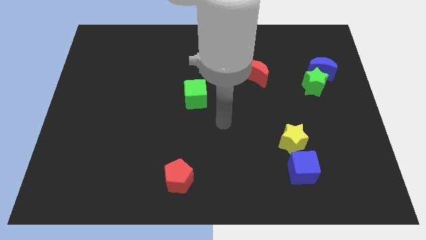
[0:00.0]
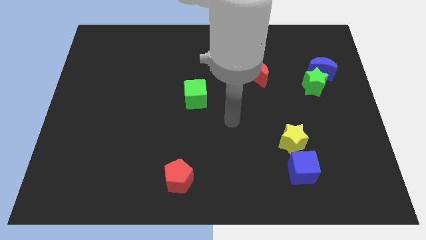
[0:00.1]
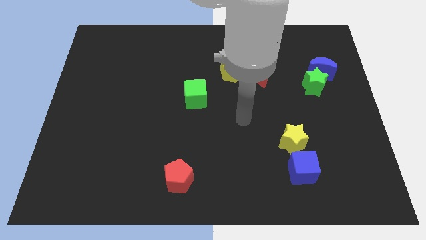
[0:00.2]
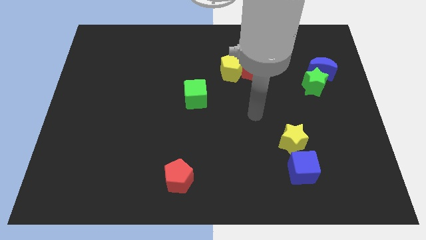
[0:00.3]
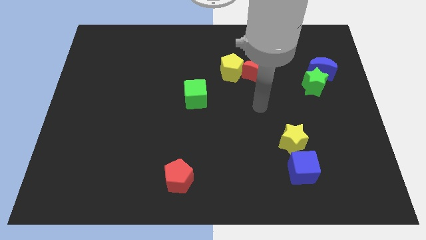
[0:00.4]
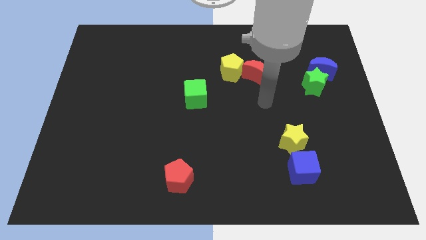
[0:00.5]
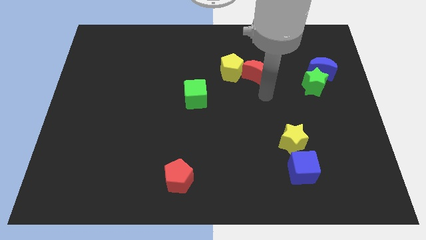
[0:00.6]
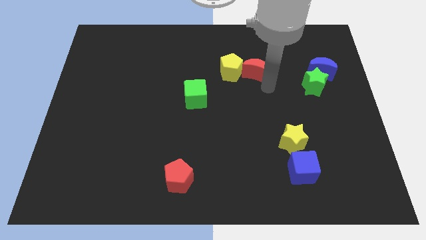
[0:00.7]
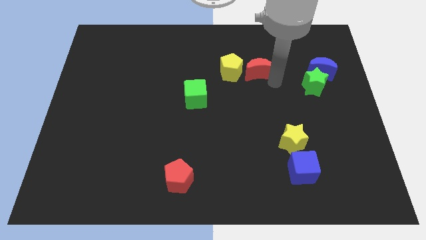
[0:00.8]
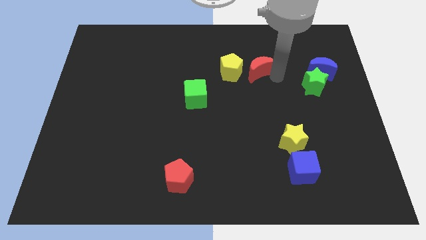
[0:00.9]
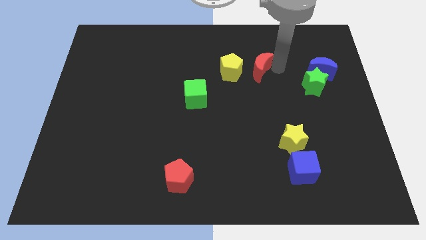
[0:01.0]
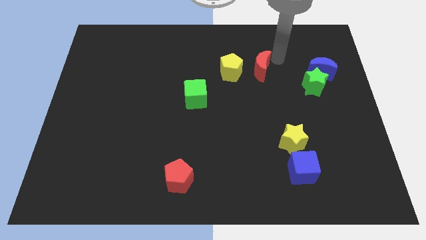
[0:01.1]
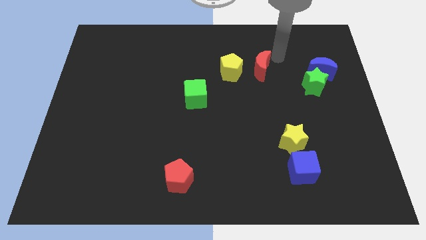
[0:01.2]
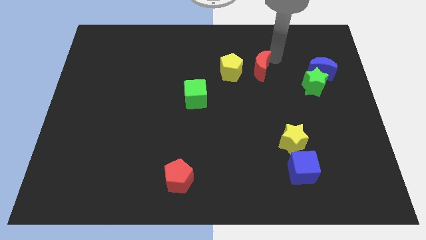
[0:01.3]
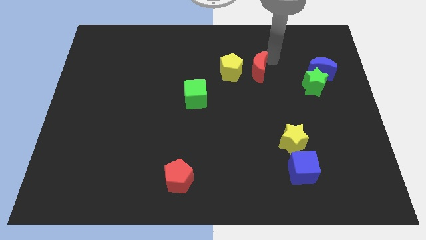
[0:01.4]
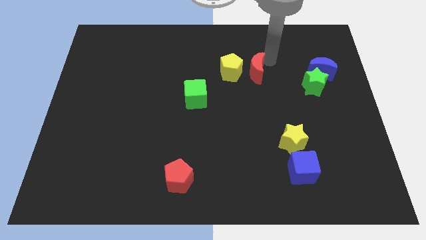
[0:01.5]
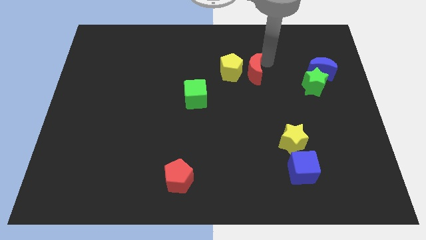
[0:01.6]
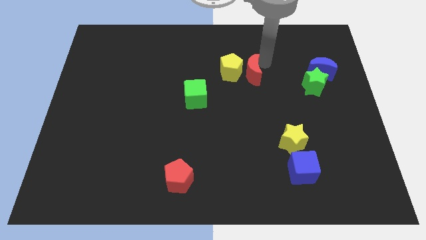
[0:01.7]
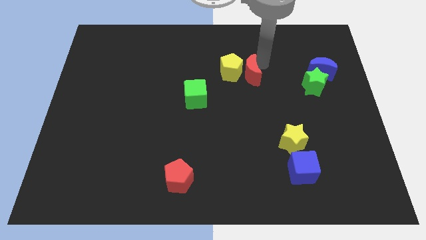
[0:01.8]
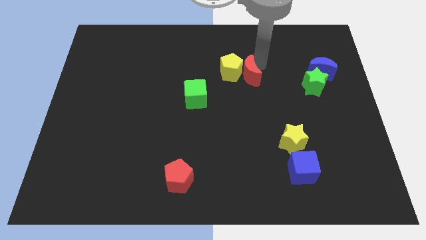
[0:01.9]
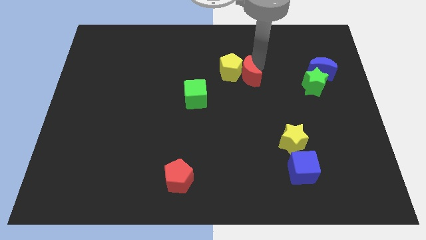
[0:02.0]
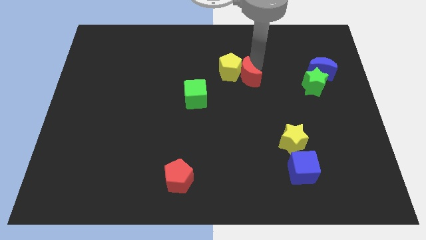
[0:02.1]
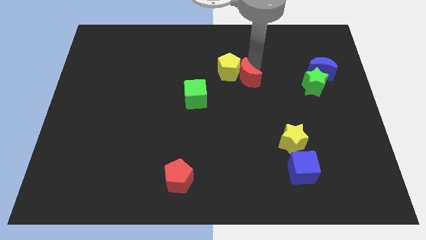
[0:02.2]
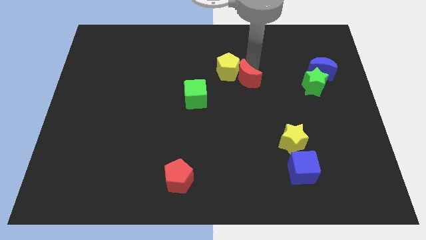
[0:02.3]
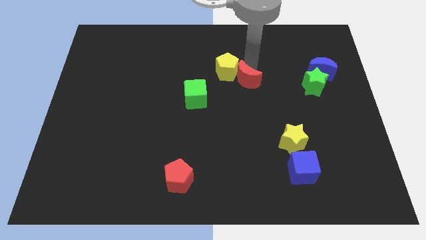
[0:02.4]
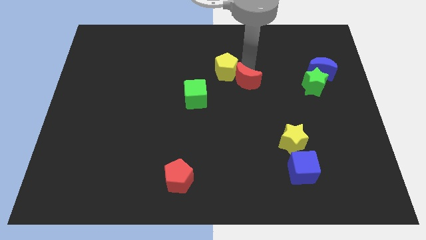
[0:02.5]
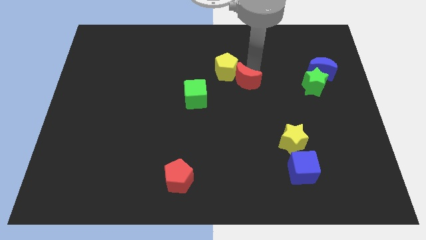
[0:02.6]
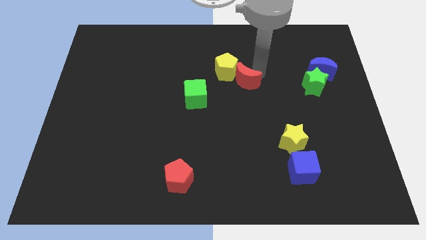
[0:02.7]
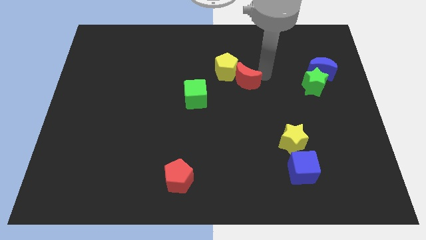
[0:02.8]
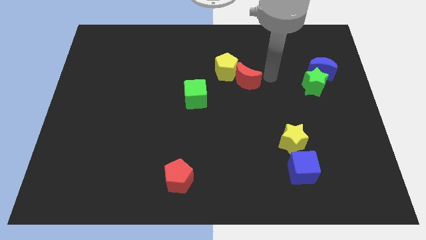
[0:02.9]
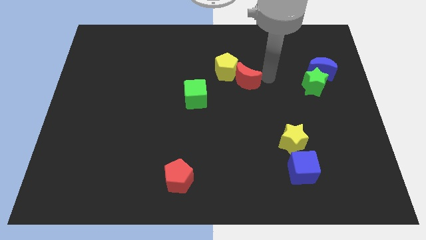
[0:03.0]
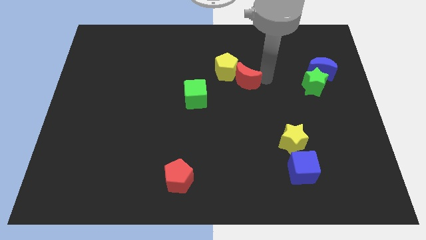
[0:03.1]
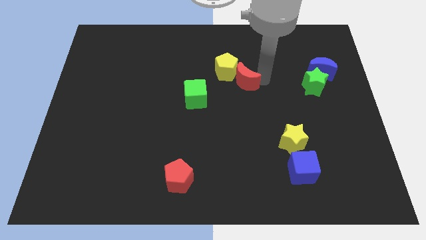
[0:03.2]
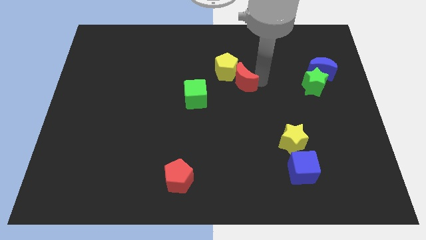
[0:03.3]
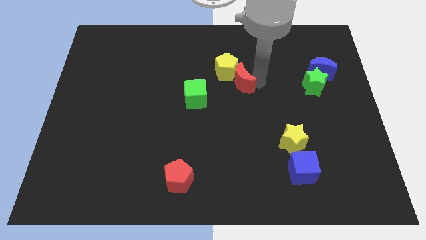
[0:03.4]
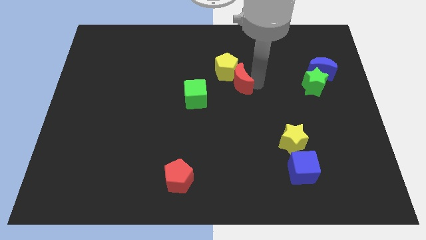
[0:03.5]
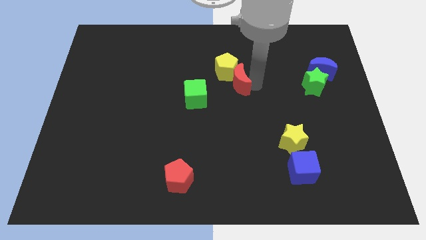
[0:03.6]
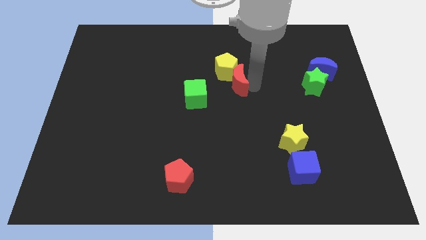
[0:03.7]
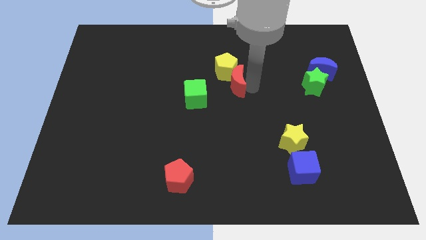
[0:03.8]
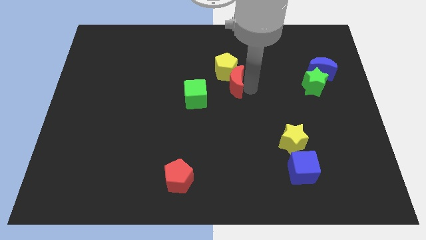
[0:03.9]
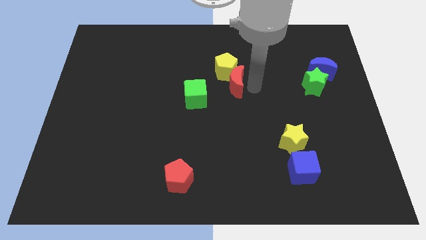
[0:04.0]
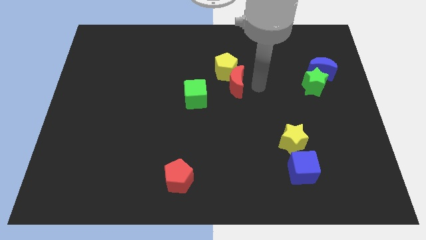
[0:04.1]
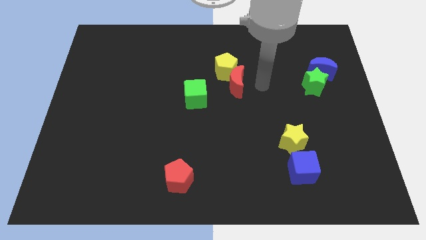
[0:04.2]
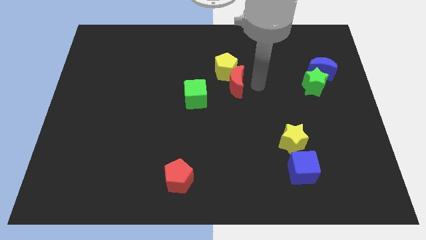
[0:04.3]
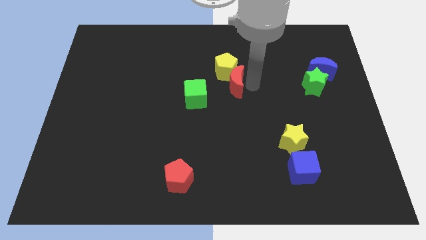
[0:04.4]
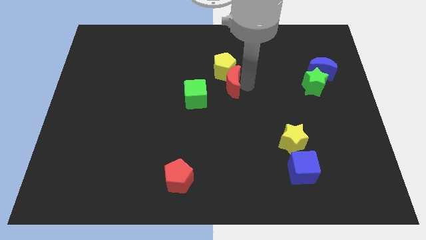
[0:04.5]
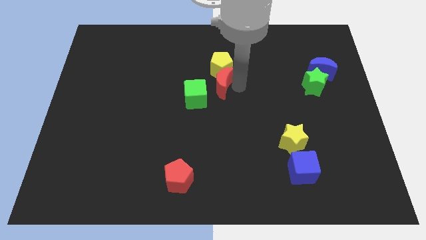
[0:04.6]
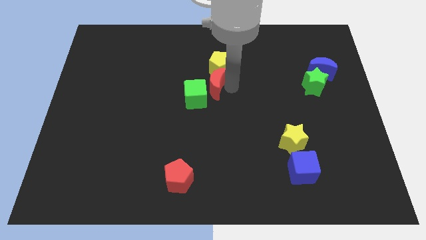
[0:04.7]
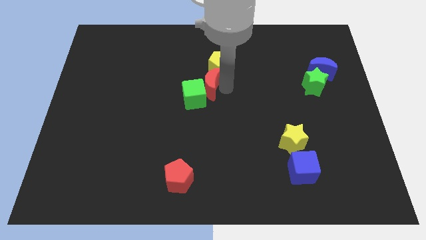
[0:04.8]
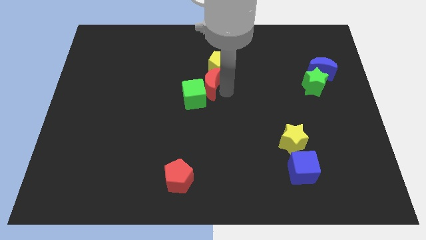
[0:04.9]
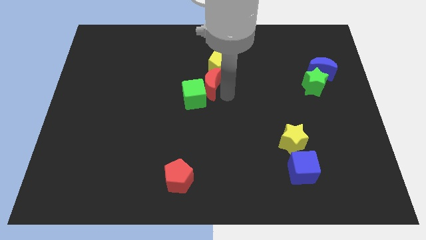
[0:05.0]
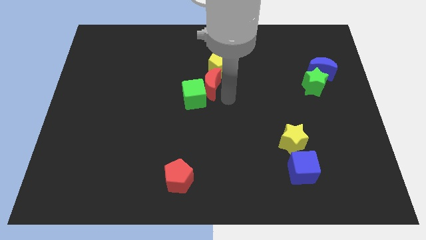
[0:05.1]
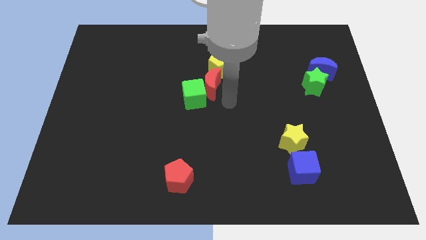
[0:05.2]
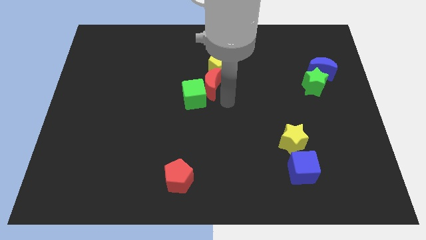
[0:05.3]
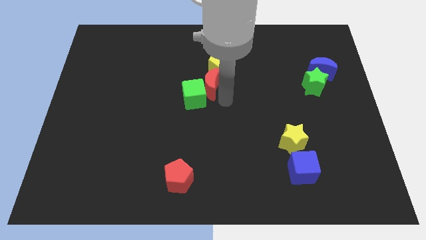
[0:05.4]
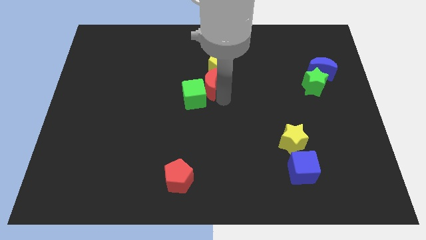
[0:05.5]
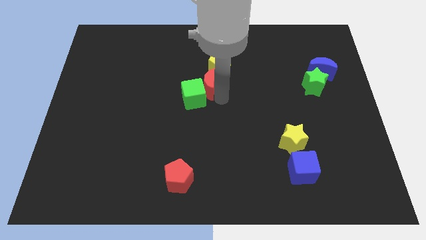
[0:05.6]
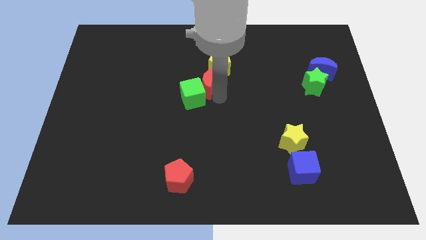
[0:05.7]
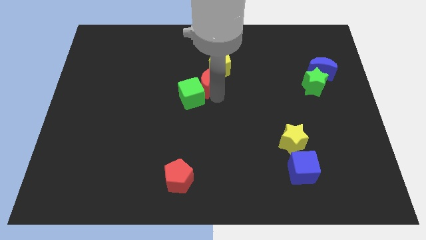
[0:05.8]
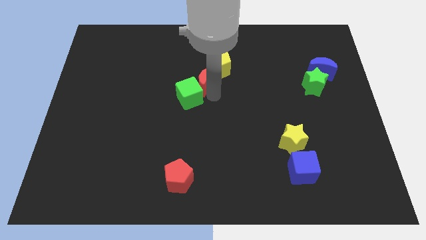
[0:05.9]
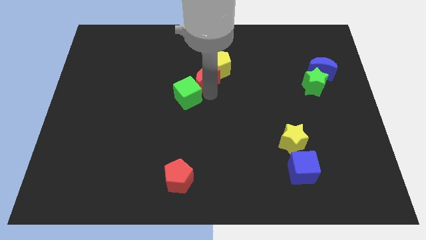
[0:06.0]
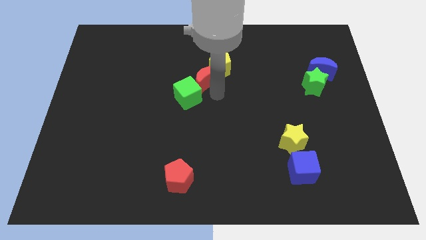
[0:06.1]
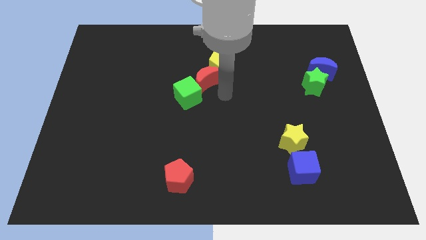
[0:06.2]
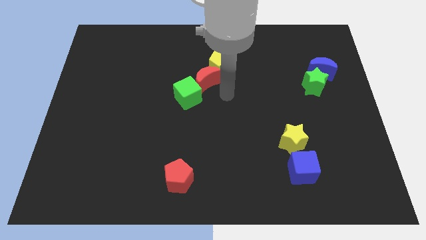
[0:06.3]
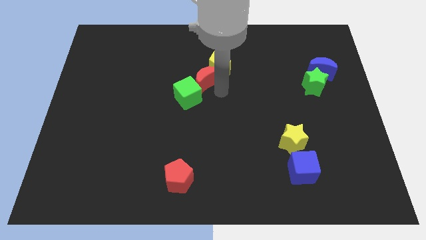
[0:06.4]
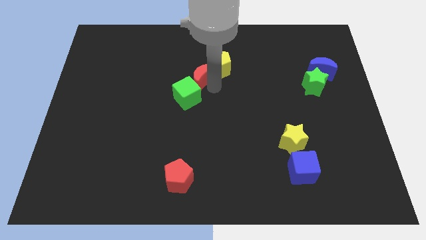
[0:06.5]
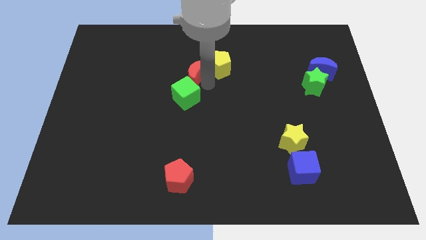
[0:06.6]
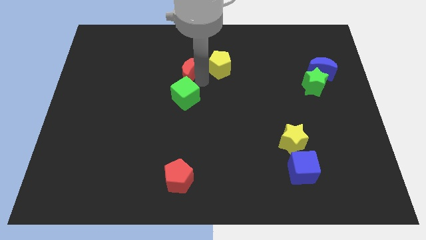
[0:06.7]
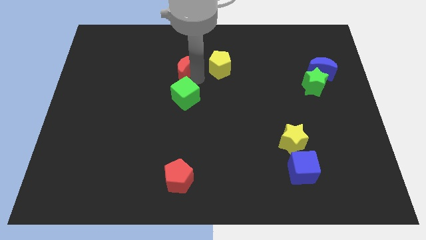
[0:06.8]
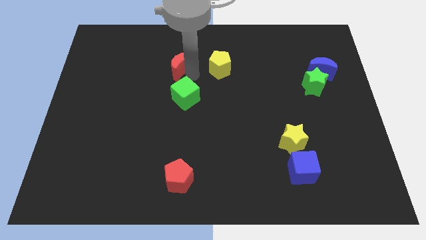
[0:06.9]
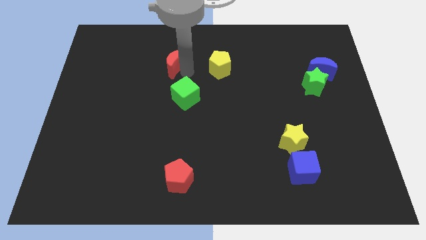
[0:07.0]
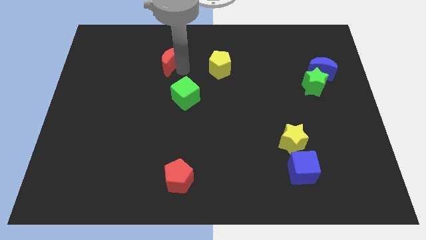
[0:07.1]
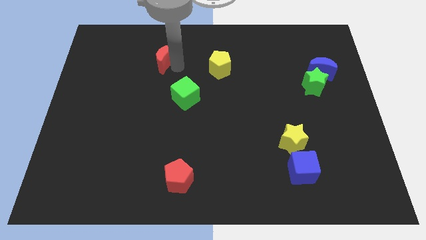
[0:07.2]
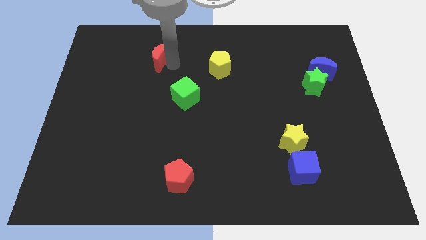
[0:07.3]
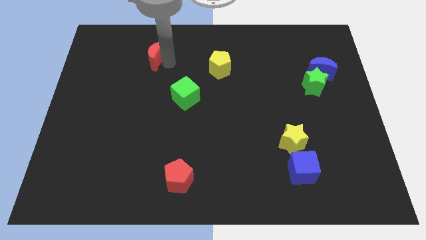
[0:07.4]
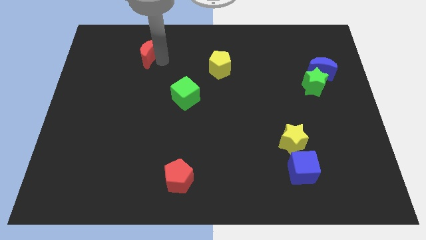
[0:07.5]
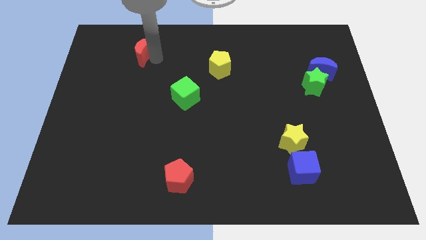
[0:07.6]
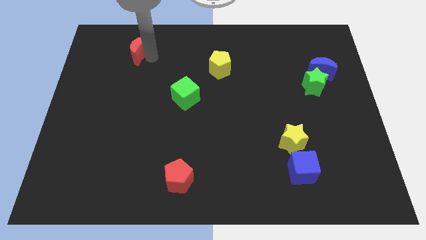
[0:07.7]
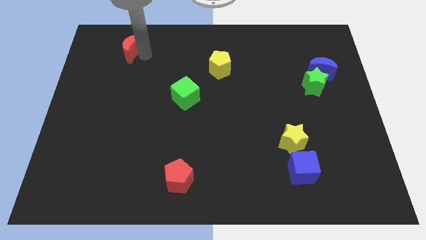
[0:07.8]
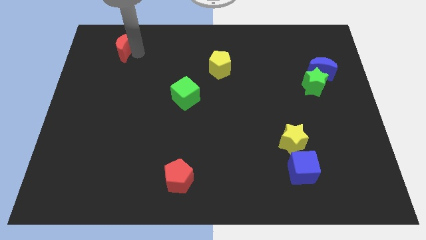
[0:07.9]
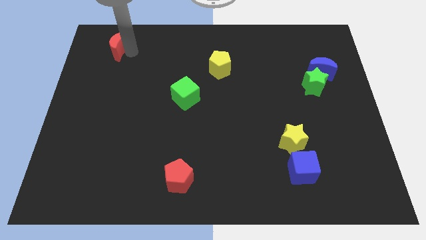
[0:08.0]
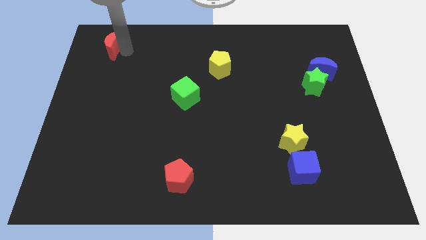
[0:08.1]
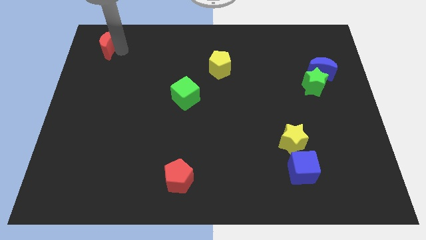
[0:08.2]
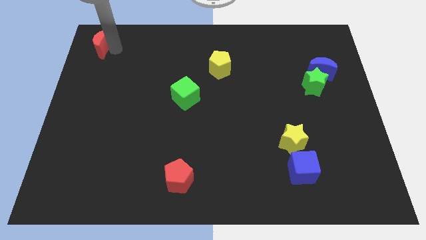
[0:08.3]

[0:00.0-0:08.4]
slide the red moon to the upper left corner
